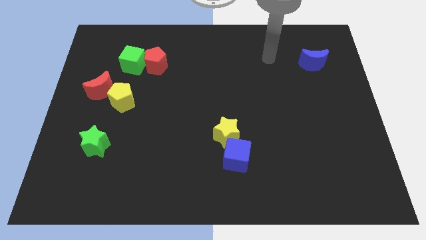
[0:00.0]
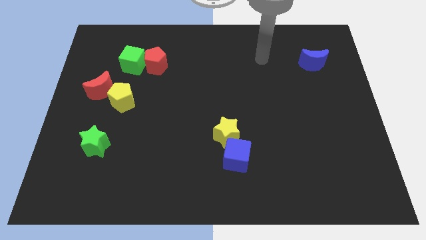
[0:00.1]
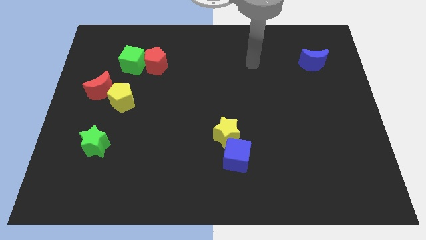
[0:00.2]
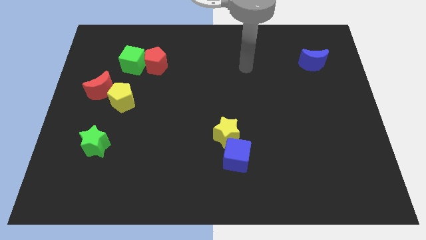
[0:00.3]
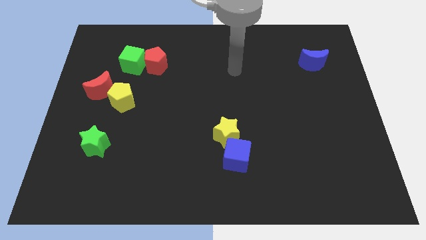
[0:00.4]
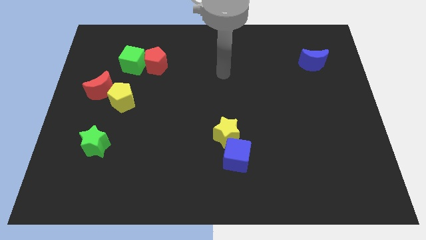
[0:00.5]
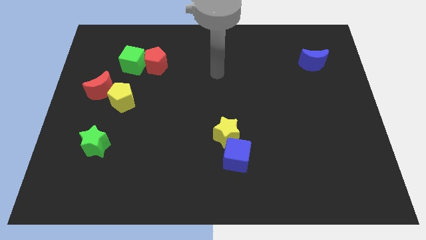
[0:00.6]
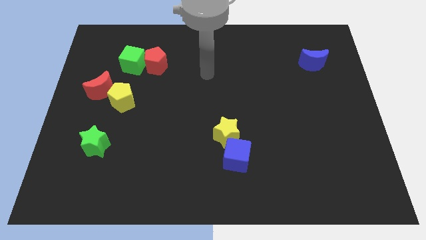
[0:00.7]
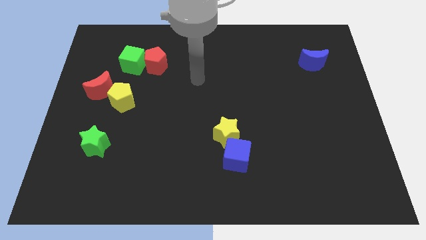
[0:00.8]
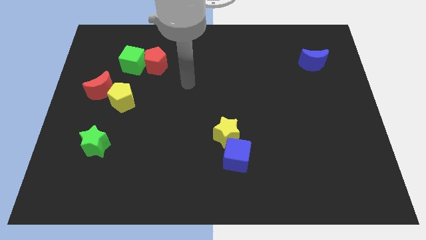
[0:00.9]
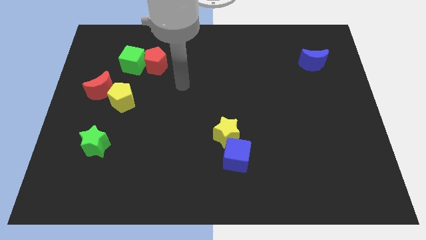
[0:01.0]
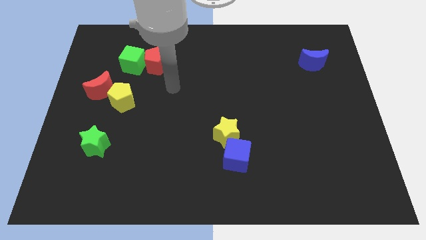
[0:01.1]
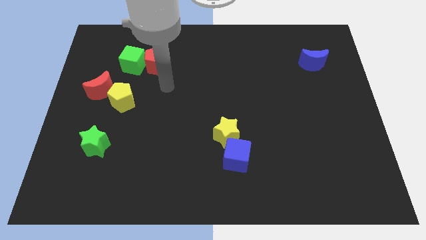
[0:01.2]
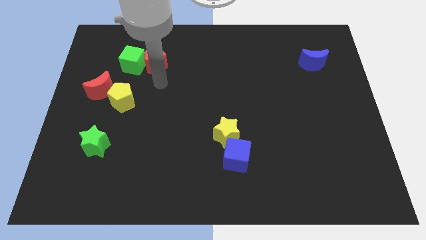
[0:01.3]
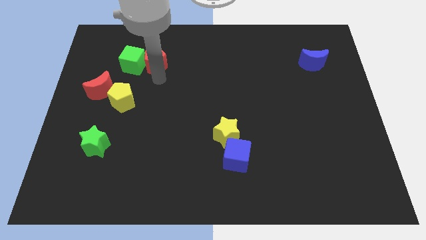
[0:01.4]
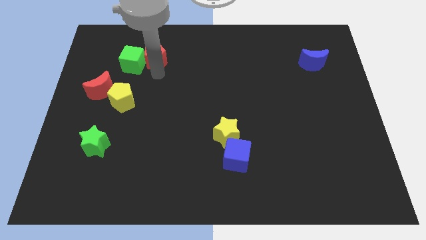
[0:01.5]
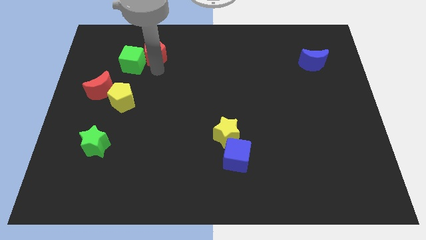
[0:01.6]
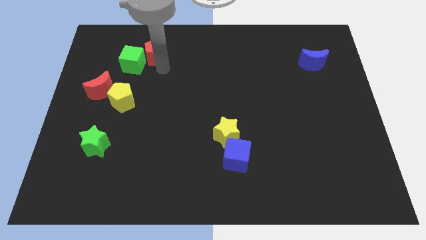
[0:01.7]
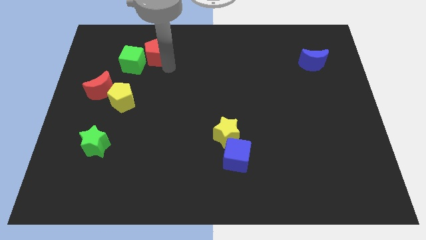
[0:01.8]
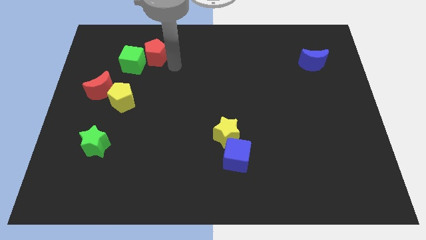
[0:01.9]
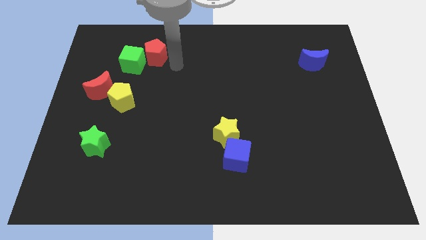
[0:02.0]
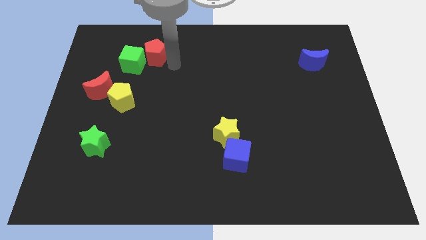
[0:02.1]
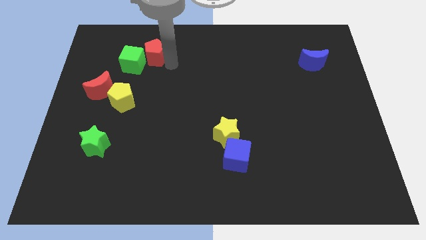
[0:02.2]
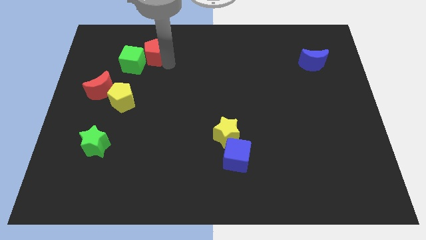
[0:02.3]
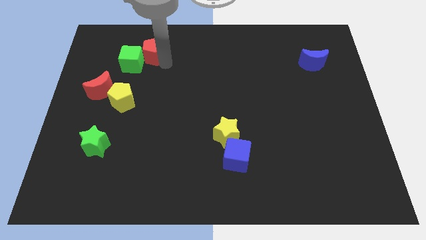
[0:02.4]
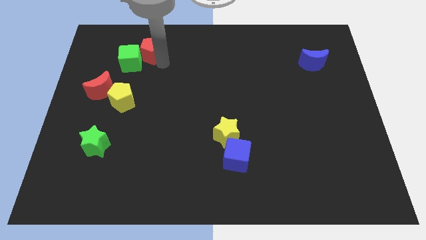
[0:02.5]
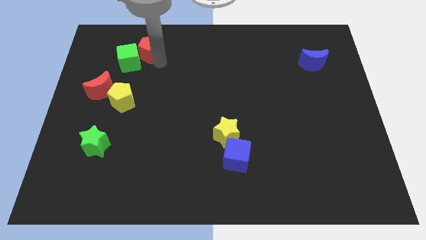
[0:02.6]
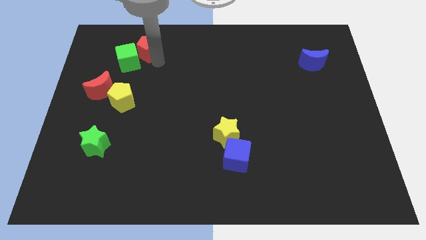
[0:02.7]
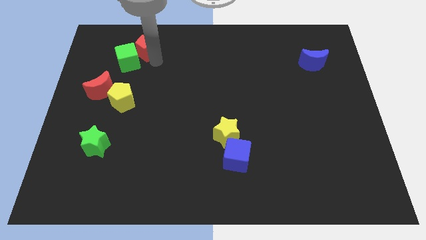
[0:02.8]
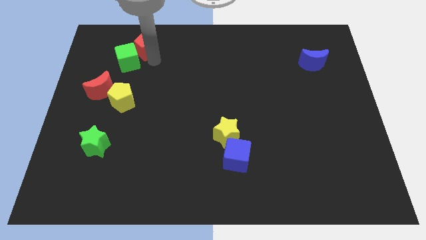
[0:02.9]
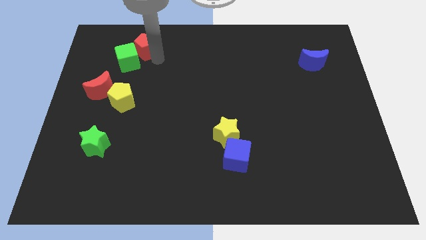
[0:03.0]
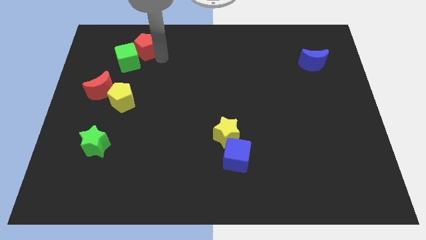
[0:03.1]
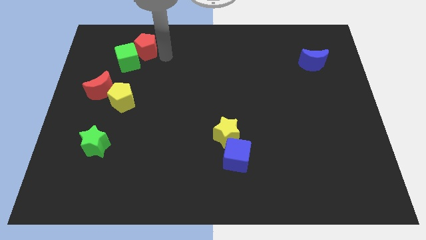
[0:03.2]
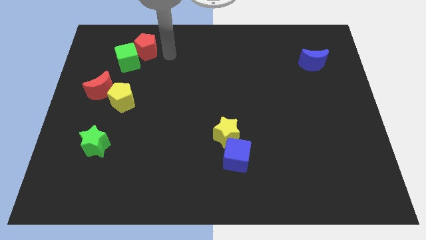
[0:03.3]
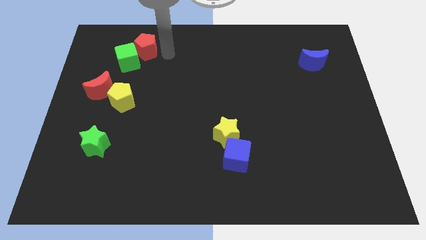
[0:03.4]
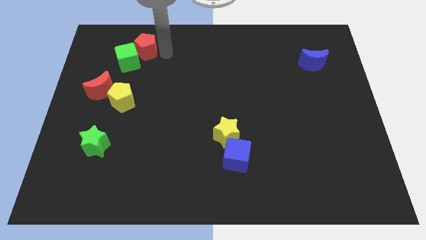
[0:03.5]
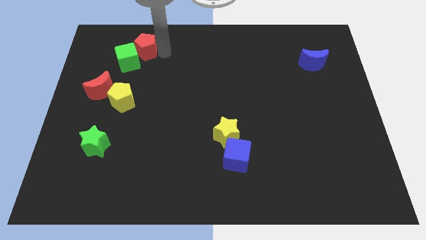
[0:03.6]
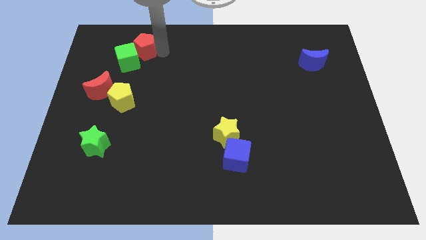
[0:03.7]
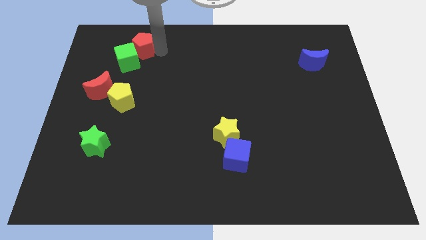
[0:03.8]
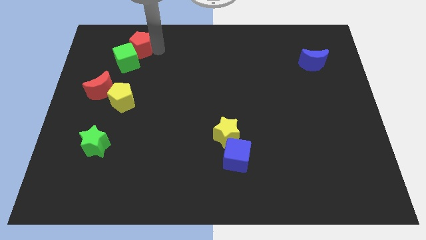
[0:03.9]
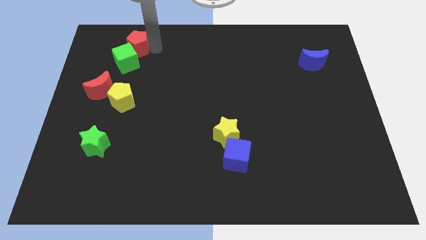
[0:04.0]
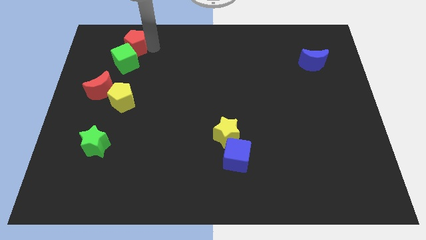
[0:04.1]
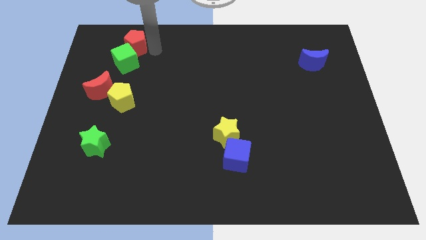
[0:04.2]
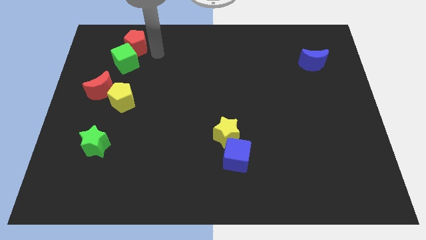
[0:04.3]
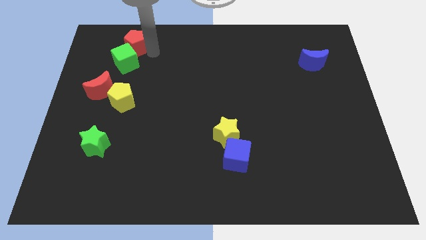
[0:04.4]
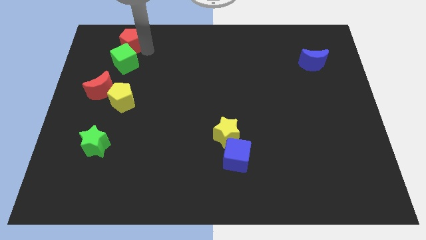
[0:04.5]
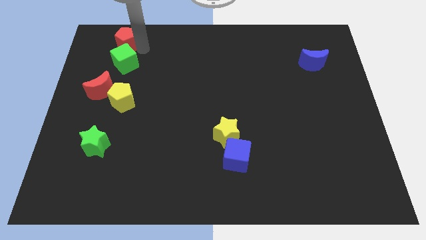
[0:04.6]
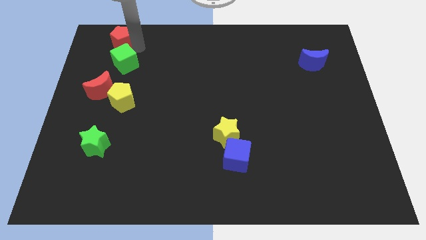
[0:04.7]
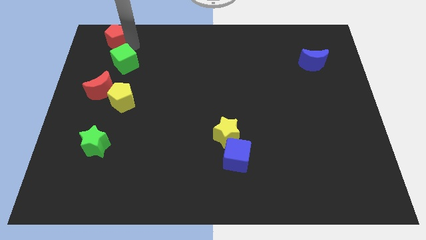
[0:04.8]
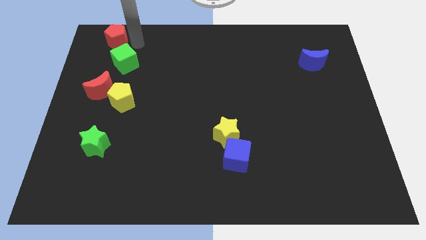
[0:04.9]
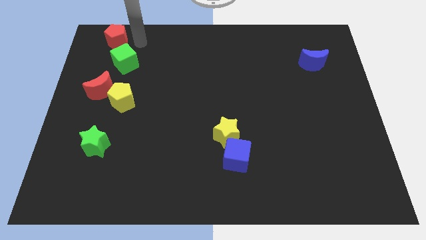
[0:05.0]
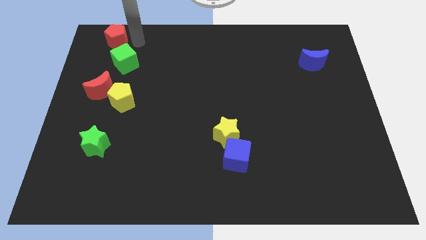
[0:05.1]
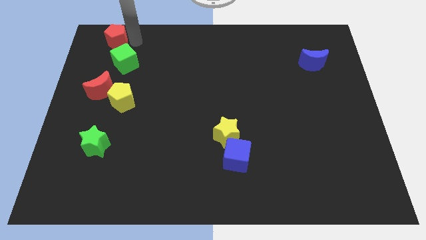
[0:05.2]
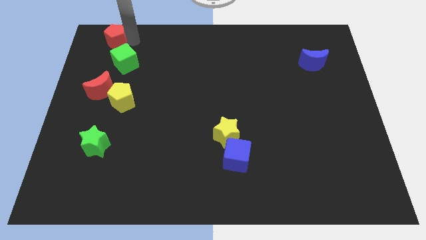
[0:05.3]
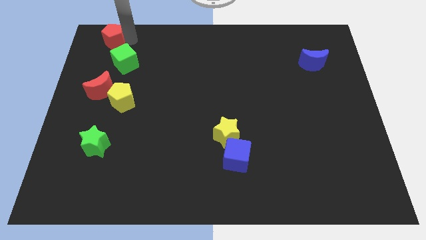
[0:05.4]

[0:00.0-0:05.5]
put the red pentagon to the upper left corner

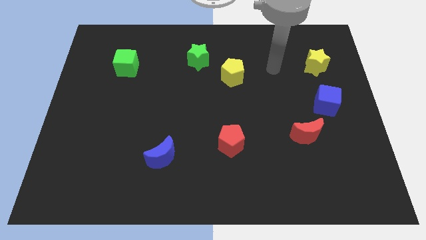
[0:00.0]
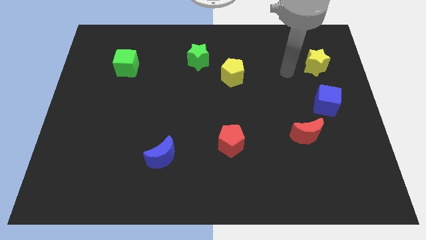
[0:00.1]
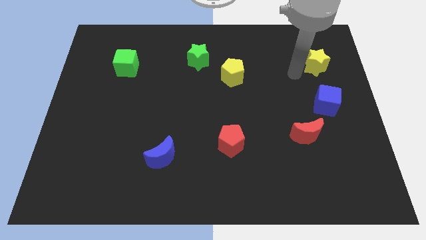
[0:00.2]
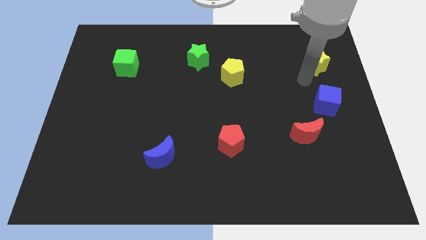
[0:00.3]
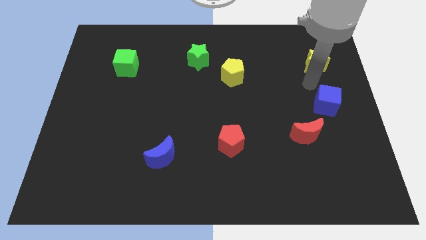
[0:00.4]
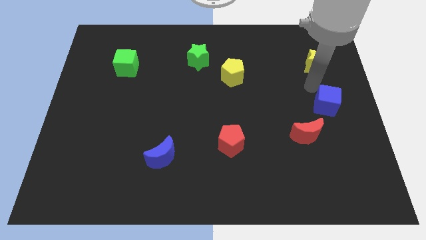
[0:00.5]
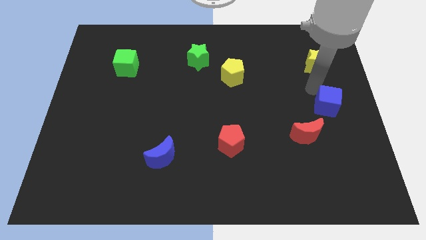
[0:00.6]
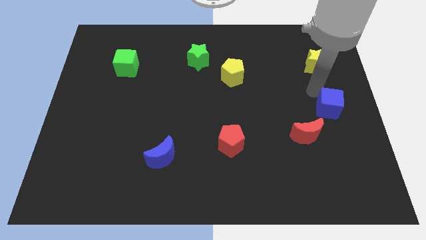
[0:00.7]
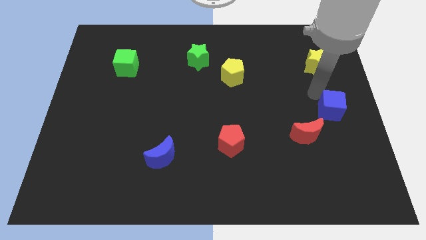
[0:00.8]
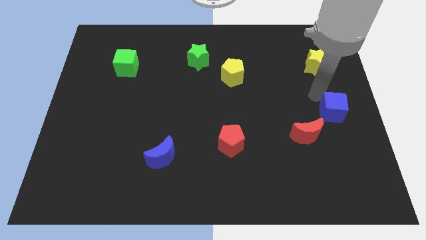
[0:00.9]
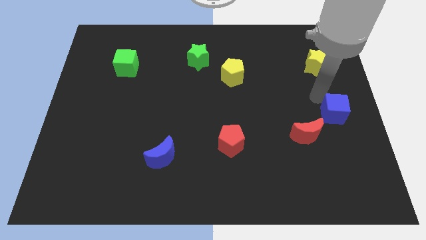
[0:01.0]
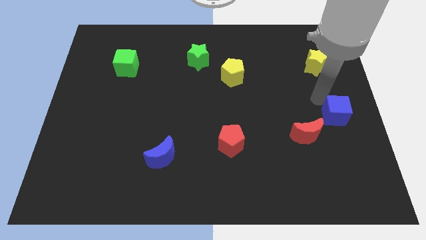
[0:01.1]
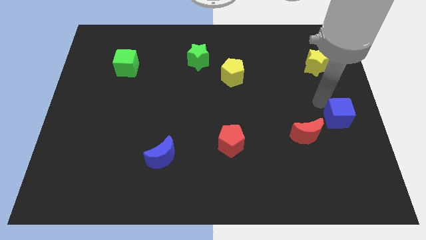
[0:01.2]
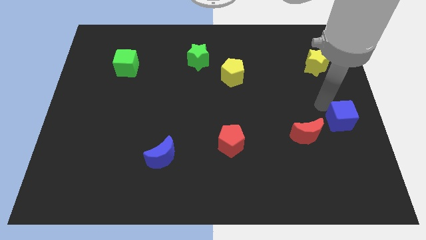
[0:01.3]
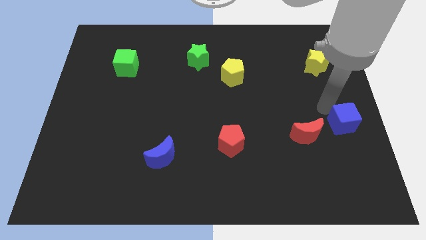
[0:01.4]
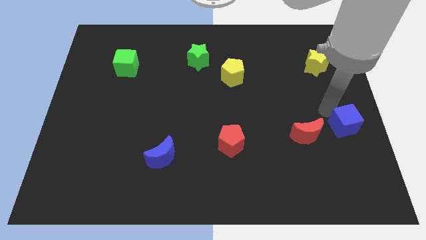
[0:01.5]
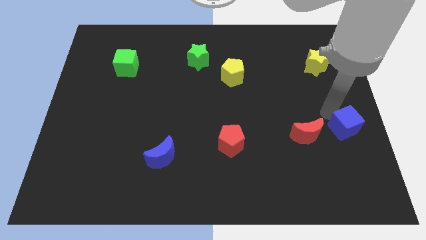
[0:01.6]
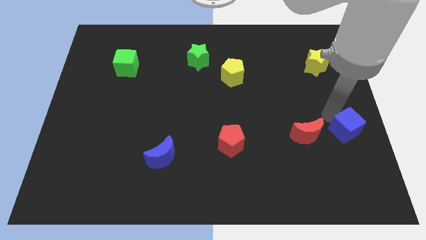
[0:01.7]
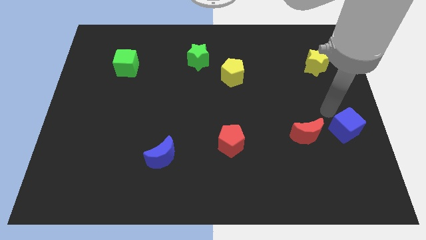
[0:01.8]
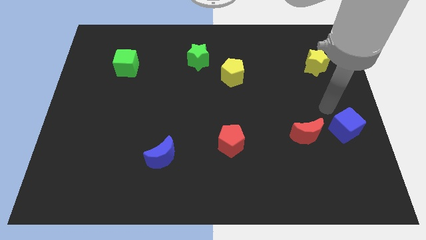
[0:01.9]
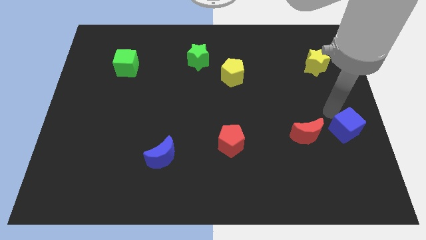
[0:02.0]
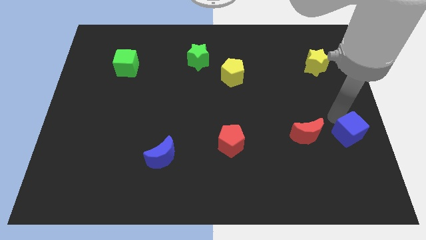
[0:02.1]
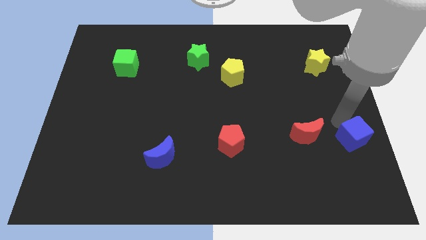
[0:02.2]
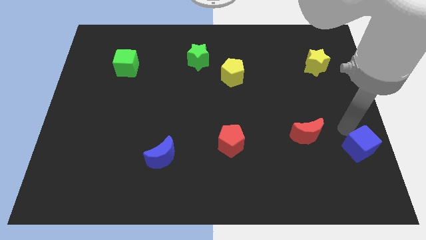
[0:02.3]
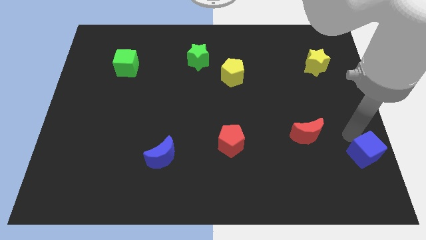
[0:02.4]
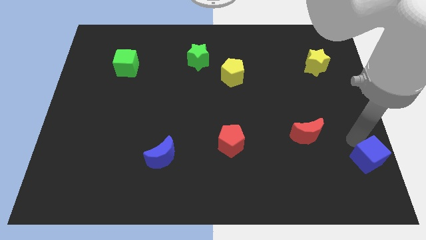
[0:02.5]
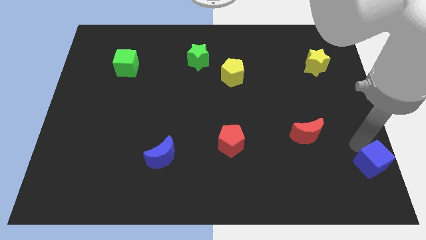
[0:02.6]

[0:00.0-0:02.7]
slide the blue cube to the lower right corner
